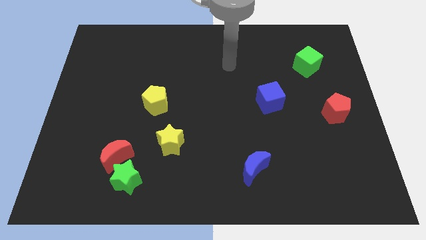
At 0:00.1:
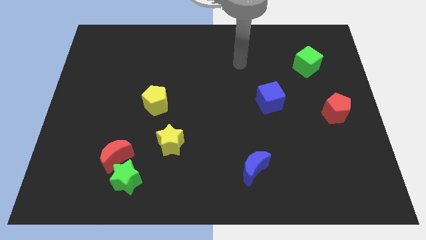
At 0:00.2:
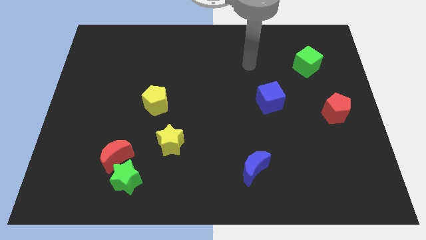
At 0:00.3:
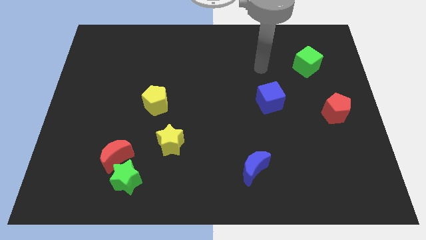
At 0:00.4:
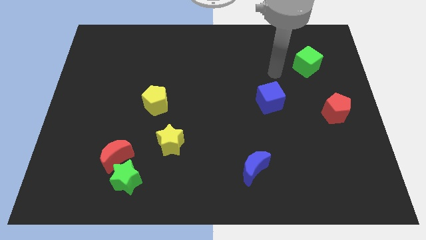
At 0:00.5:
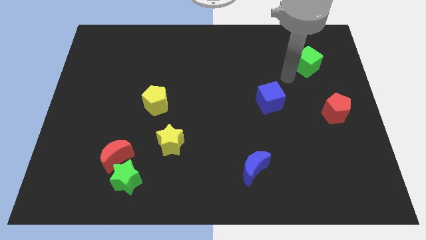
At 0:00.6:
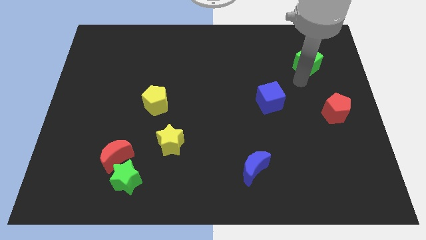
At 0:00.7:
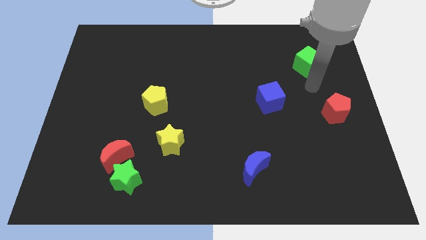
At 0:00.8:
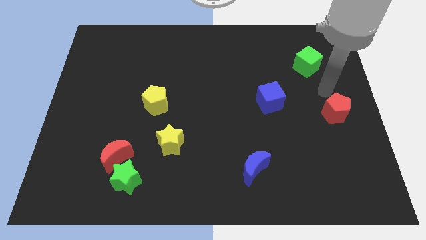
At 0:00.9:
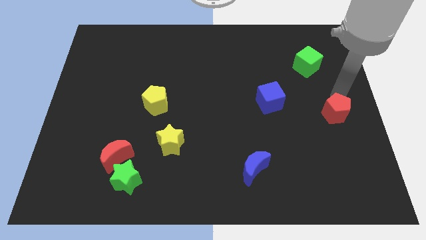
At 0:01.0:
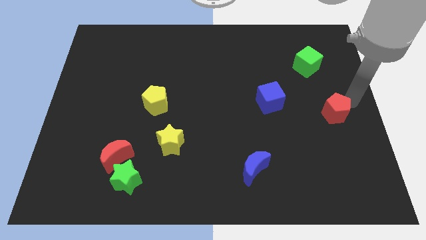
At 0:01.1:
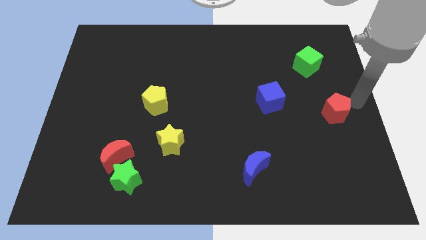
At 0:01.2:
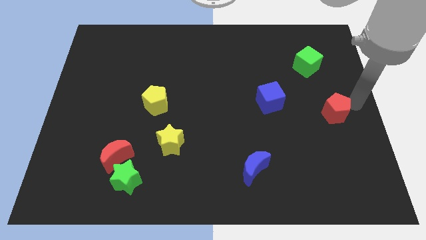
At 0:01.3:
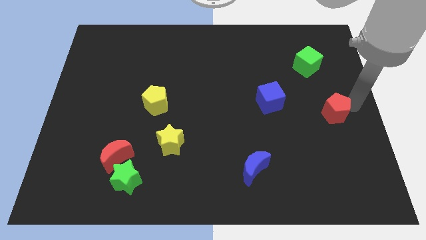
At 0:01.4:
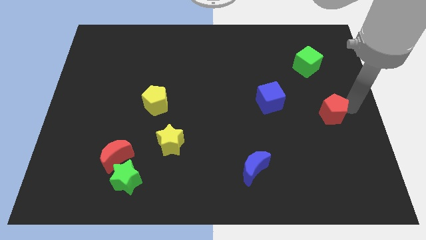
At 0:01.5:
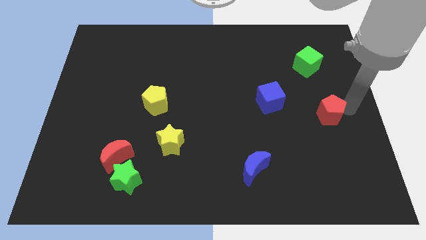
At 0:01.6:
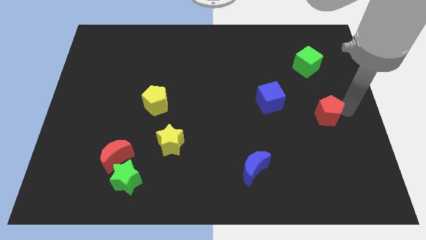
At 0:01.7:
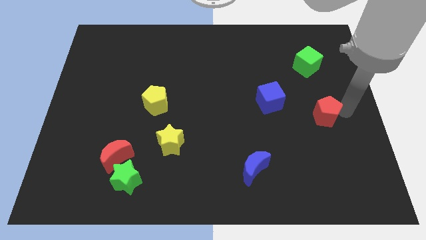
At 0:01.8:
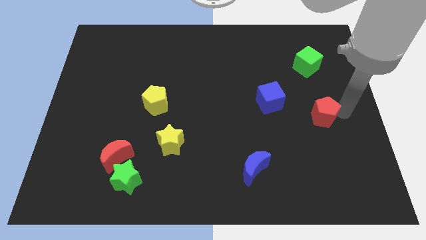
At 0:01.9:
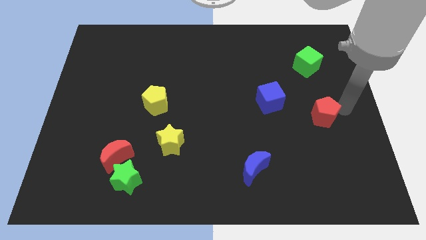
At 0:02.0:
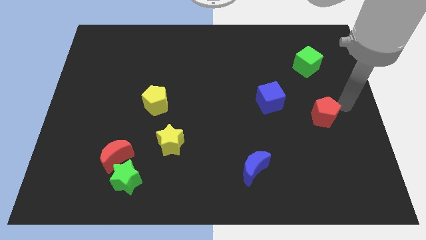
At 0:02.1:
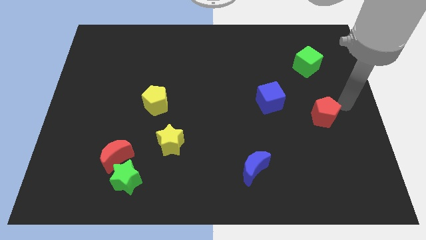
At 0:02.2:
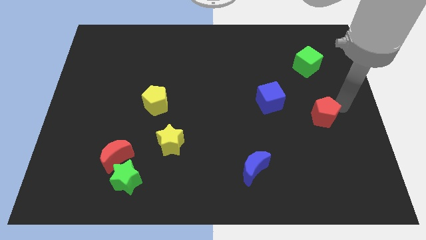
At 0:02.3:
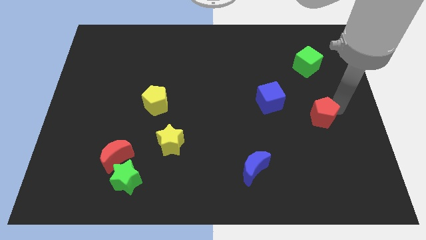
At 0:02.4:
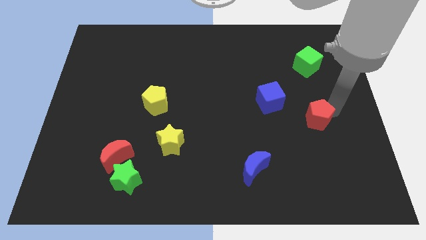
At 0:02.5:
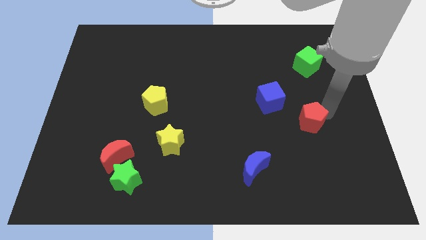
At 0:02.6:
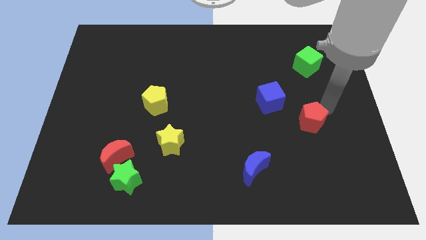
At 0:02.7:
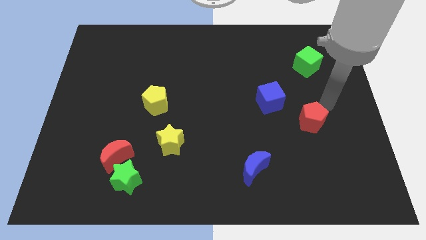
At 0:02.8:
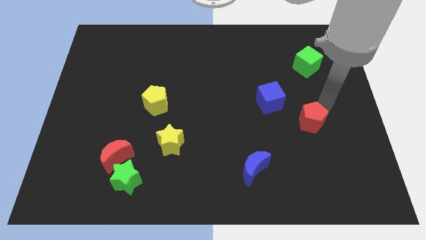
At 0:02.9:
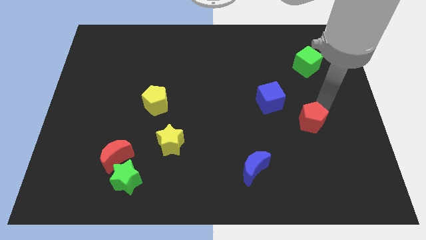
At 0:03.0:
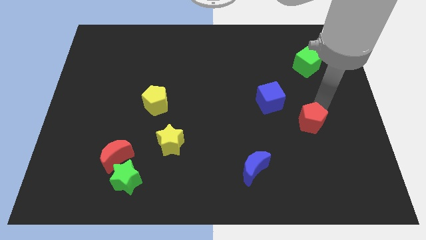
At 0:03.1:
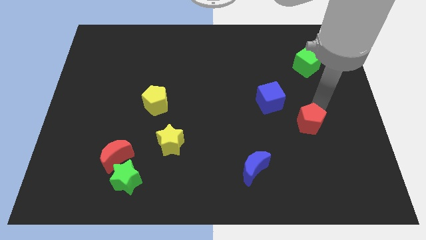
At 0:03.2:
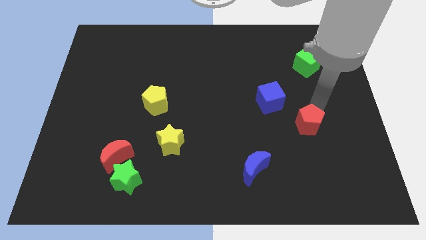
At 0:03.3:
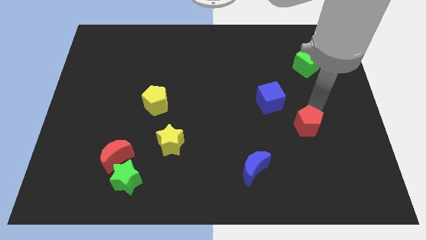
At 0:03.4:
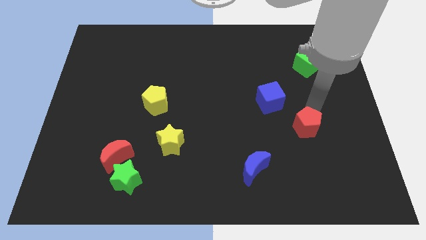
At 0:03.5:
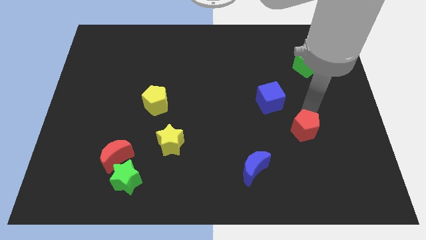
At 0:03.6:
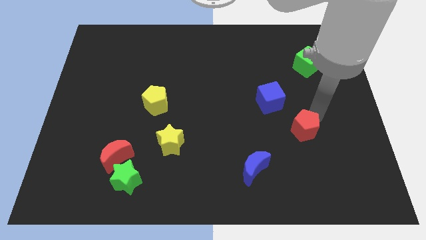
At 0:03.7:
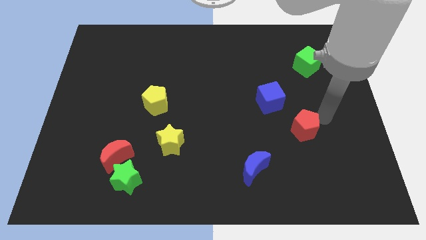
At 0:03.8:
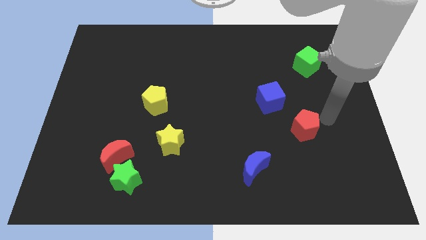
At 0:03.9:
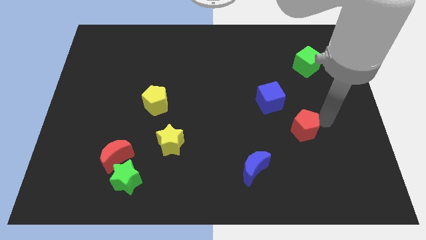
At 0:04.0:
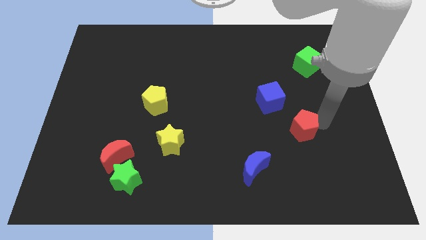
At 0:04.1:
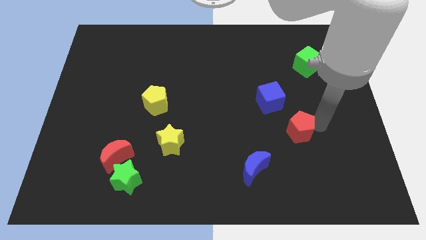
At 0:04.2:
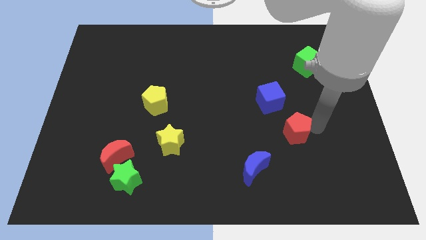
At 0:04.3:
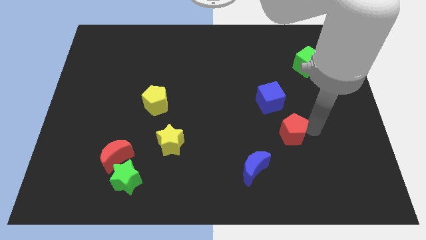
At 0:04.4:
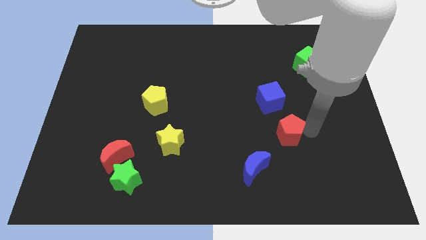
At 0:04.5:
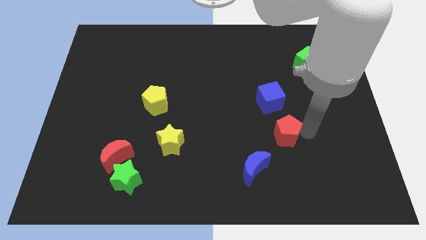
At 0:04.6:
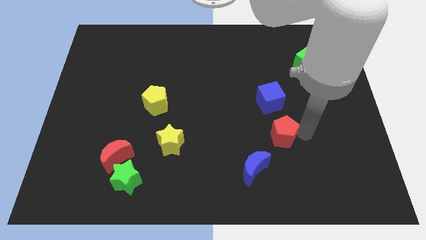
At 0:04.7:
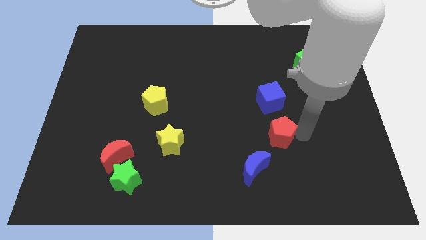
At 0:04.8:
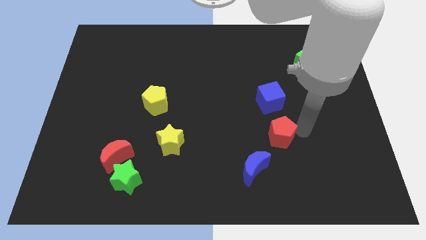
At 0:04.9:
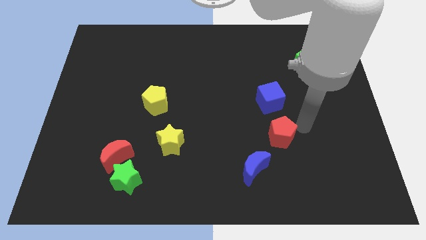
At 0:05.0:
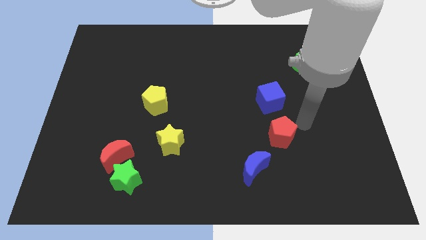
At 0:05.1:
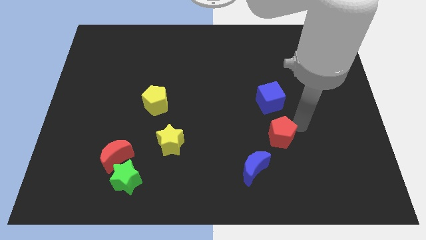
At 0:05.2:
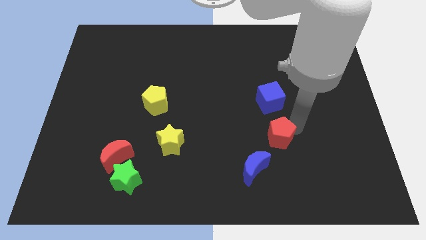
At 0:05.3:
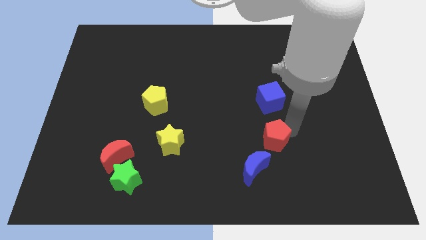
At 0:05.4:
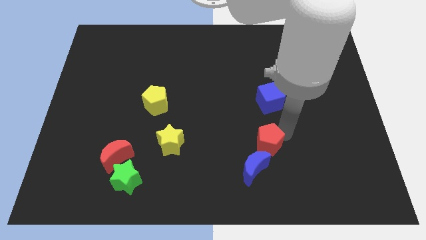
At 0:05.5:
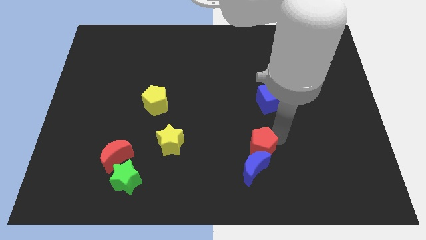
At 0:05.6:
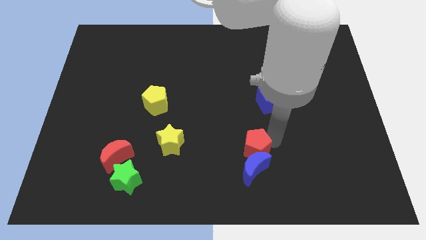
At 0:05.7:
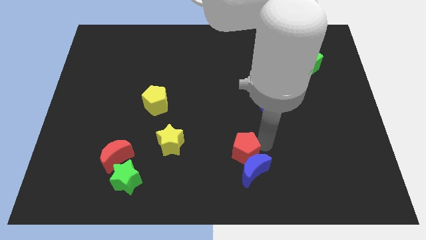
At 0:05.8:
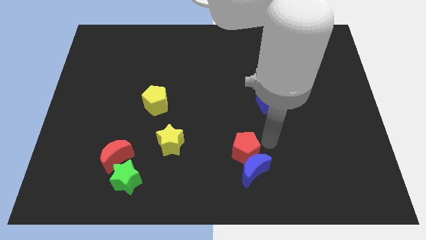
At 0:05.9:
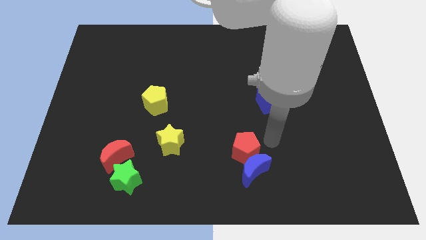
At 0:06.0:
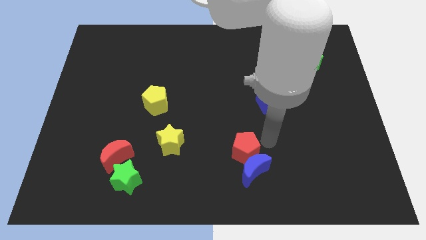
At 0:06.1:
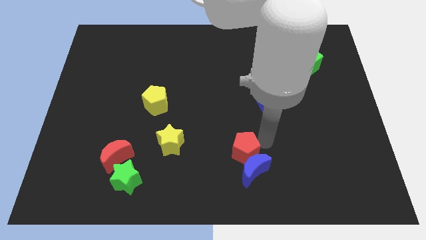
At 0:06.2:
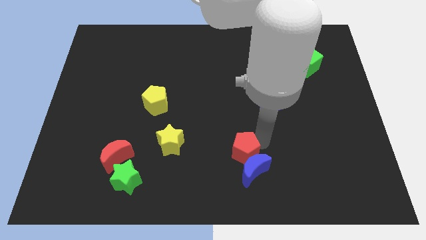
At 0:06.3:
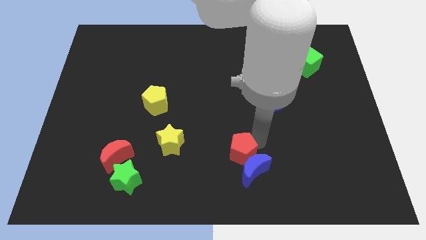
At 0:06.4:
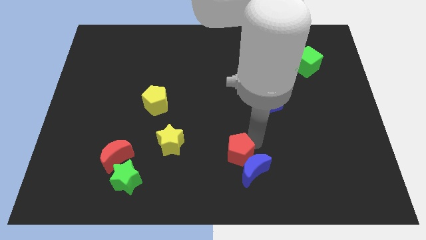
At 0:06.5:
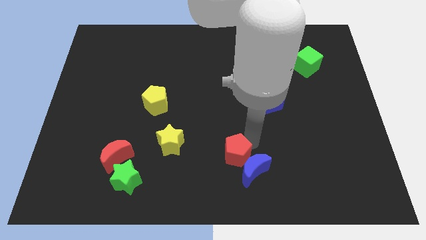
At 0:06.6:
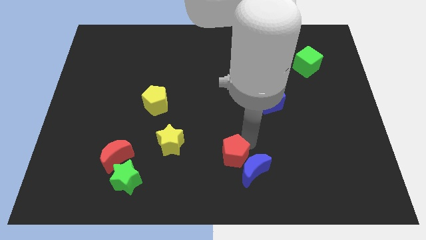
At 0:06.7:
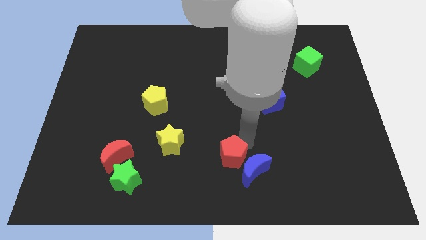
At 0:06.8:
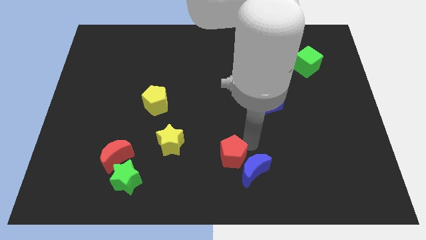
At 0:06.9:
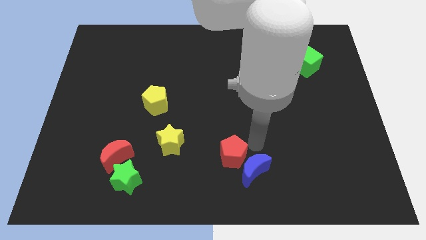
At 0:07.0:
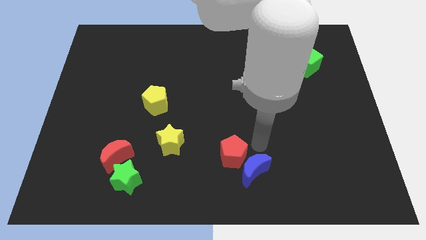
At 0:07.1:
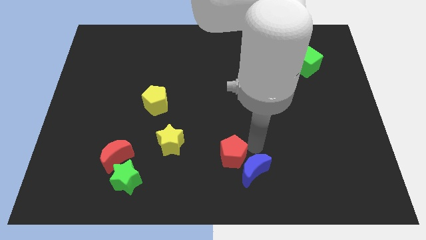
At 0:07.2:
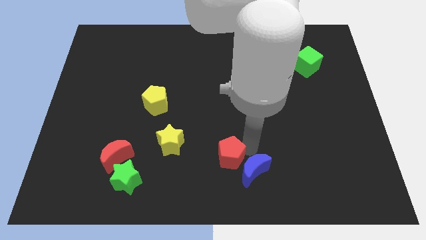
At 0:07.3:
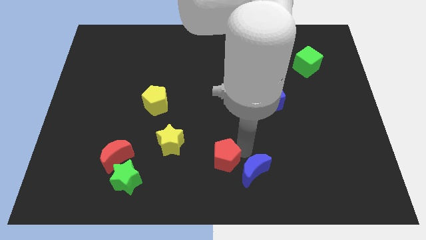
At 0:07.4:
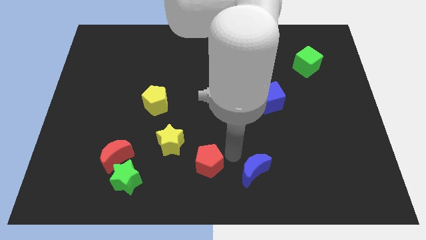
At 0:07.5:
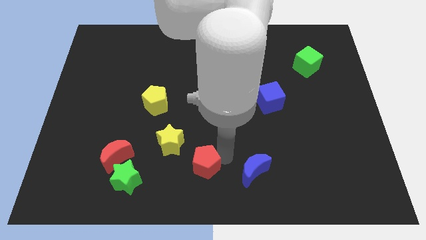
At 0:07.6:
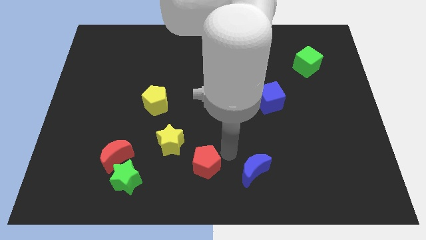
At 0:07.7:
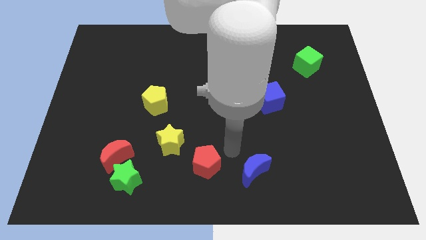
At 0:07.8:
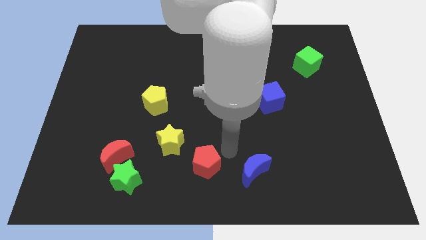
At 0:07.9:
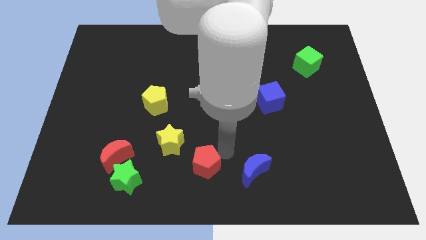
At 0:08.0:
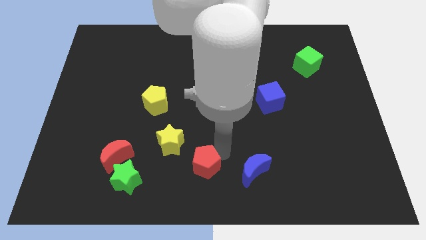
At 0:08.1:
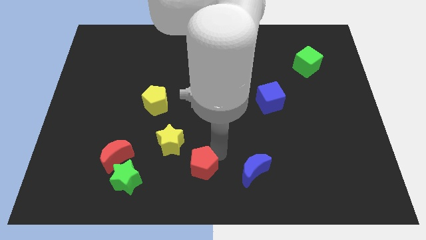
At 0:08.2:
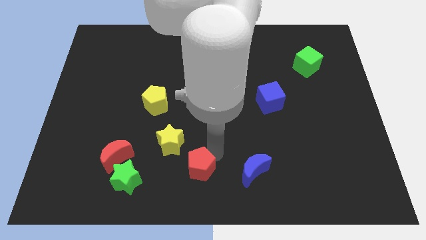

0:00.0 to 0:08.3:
put the red pentagon to the right side of the green star
